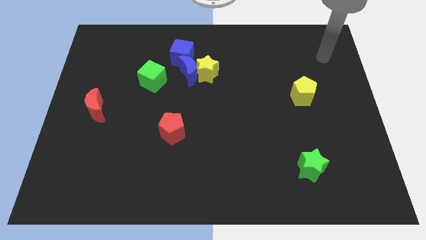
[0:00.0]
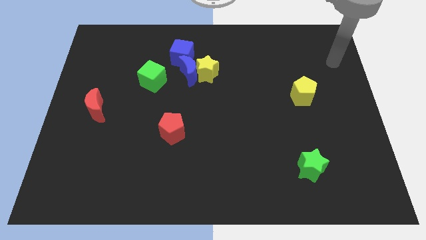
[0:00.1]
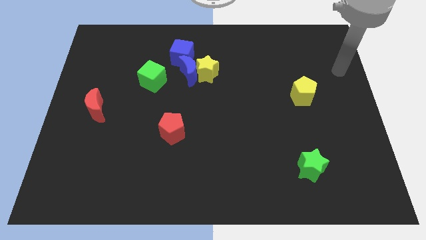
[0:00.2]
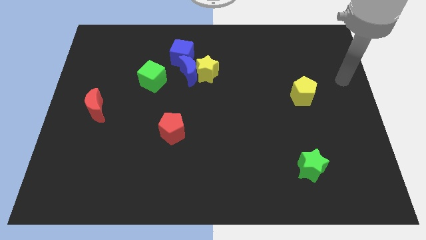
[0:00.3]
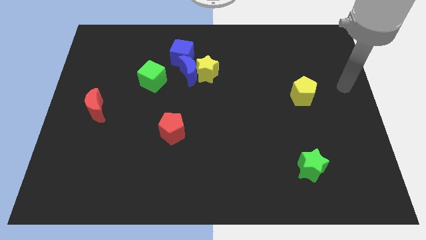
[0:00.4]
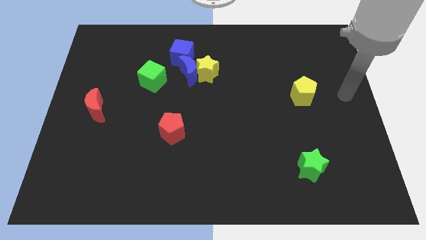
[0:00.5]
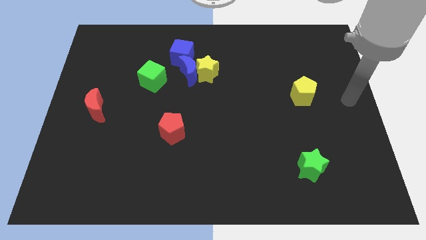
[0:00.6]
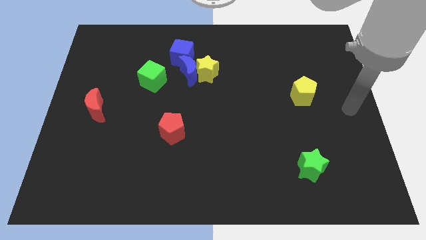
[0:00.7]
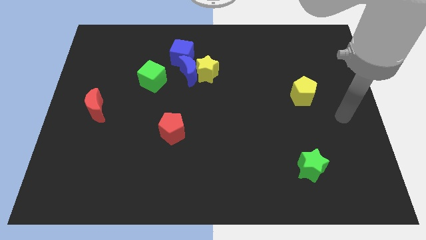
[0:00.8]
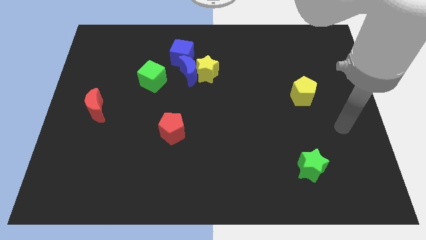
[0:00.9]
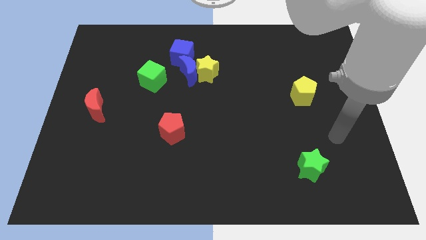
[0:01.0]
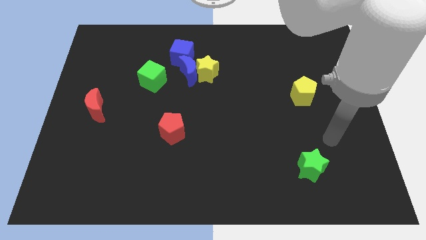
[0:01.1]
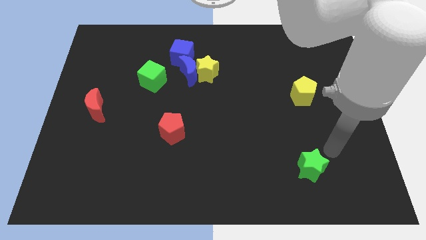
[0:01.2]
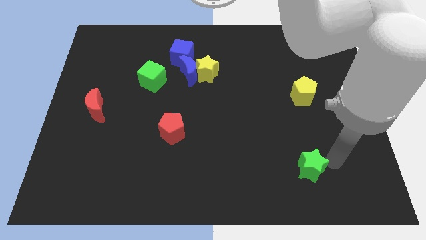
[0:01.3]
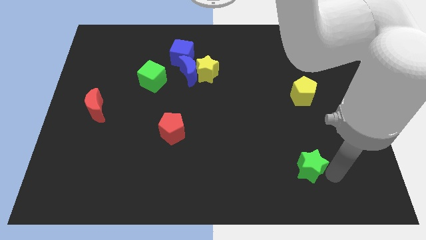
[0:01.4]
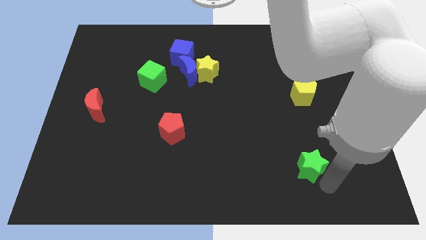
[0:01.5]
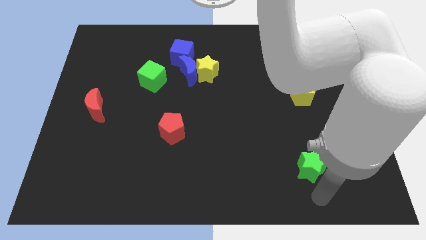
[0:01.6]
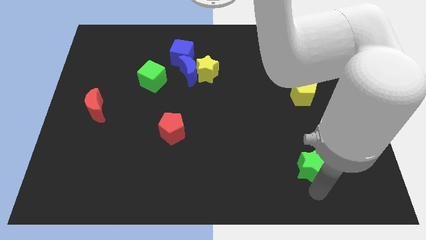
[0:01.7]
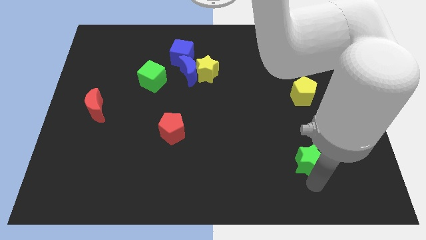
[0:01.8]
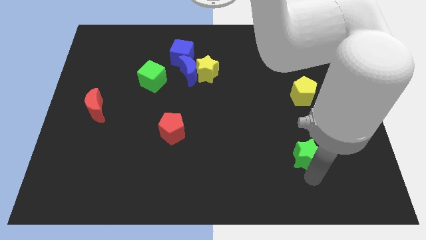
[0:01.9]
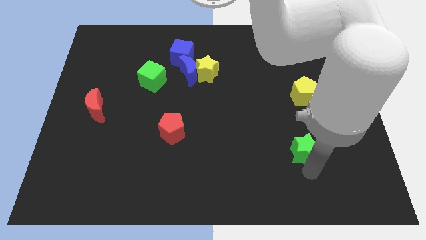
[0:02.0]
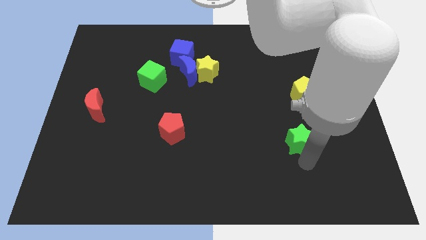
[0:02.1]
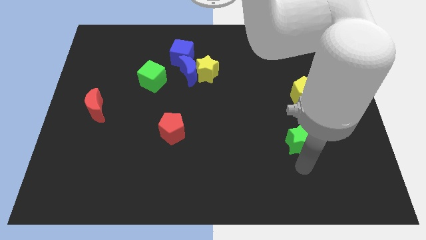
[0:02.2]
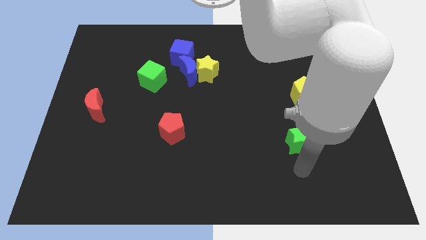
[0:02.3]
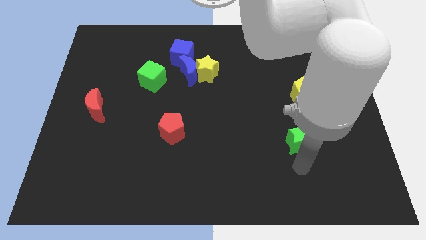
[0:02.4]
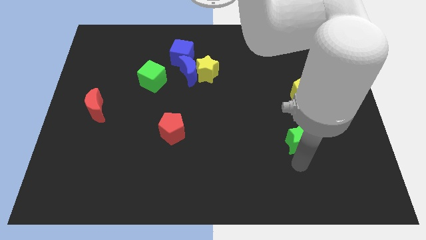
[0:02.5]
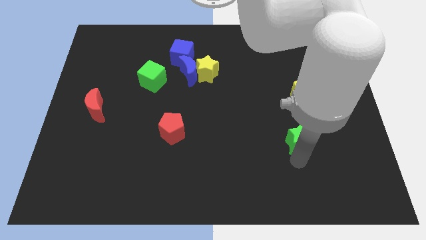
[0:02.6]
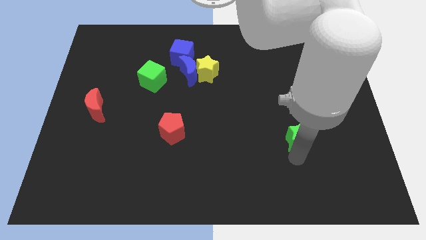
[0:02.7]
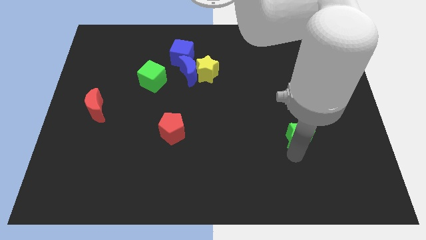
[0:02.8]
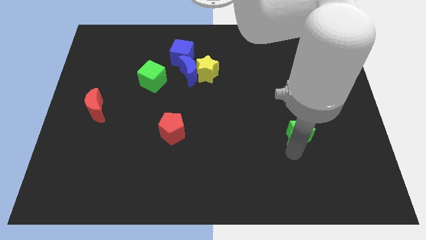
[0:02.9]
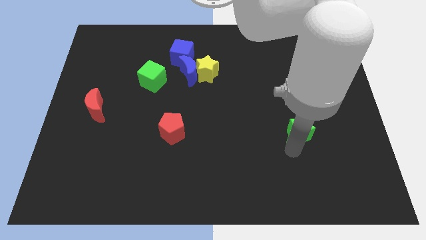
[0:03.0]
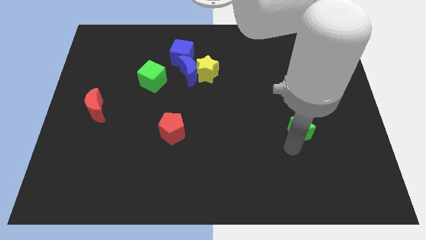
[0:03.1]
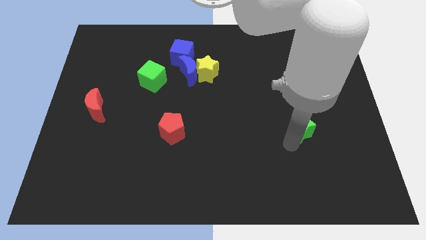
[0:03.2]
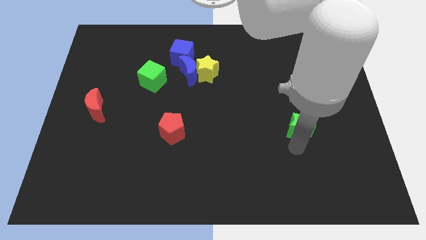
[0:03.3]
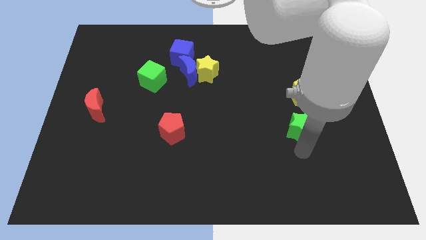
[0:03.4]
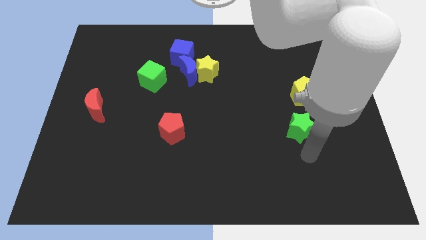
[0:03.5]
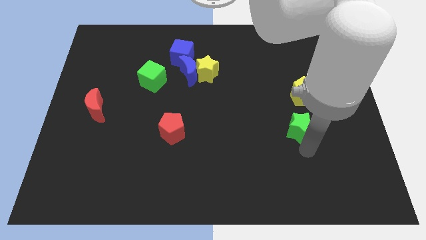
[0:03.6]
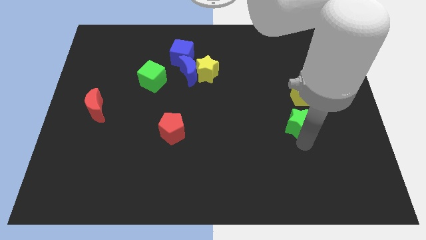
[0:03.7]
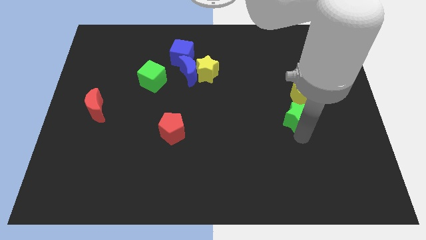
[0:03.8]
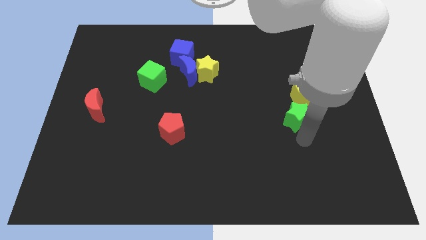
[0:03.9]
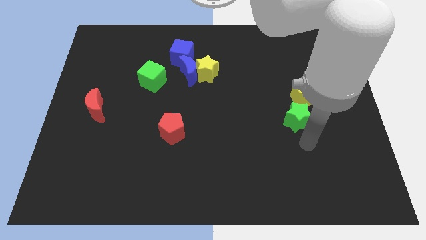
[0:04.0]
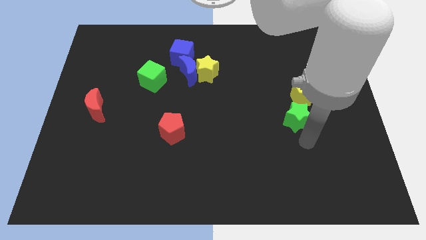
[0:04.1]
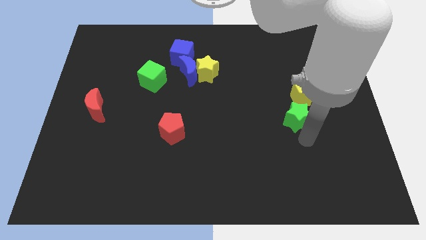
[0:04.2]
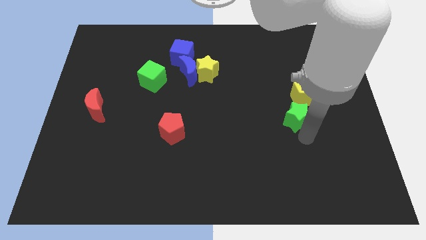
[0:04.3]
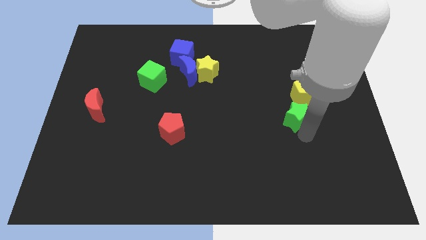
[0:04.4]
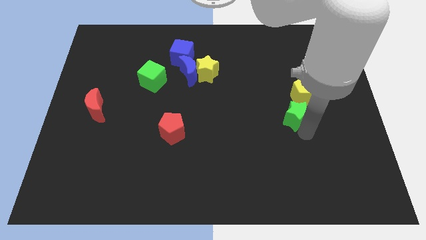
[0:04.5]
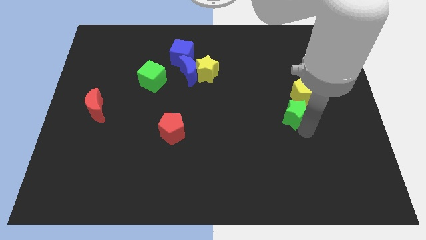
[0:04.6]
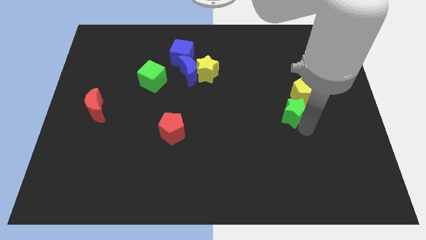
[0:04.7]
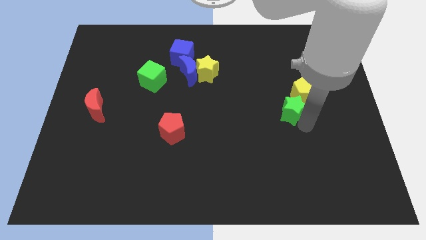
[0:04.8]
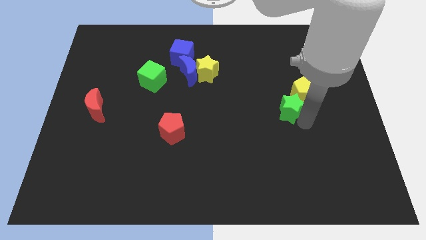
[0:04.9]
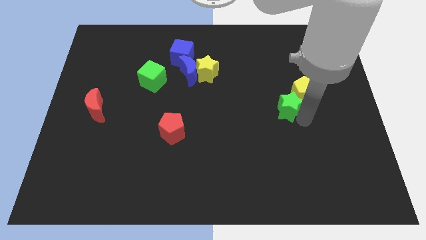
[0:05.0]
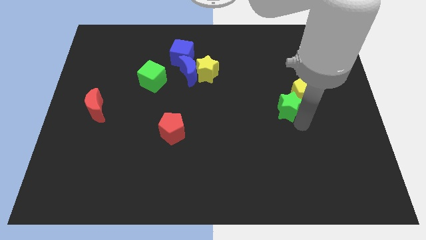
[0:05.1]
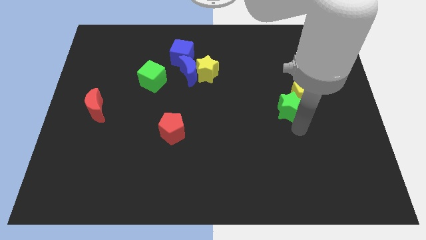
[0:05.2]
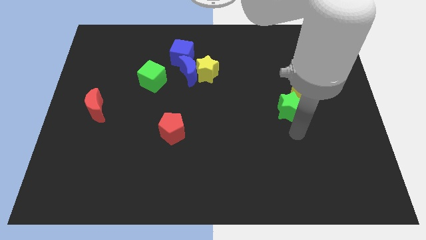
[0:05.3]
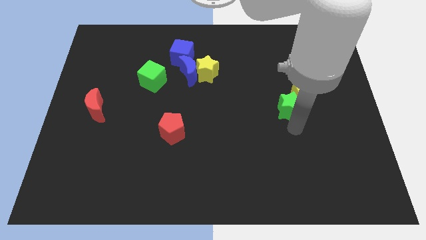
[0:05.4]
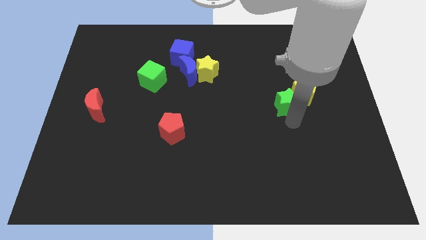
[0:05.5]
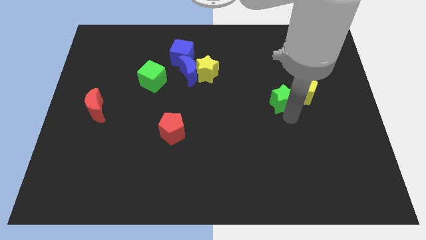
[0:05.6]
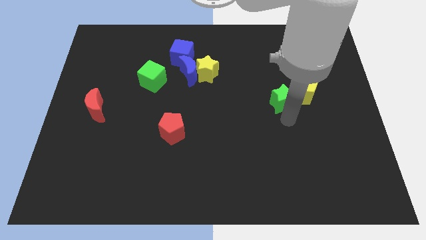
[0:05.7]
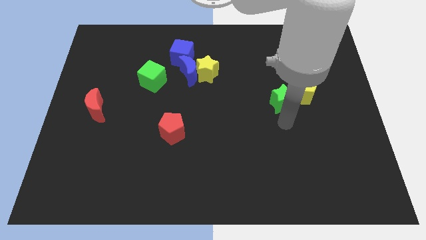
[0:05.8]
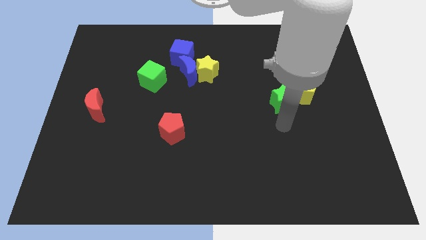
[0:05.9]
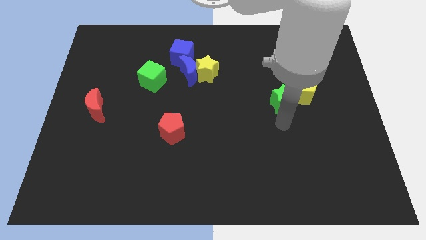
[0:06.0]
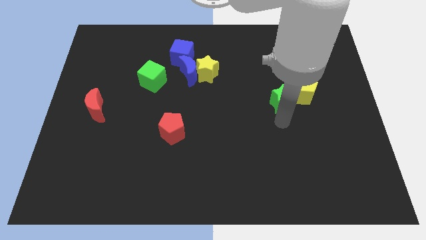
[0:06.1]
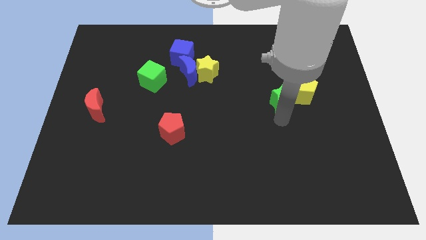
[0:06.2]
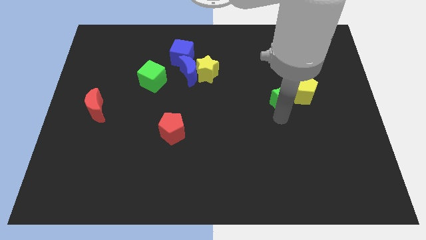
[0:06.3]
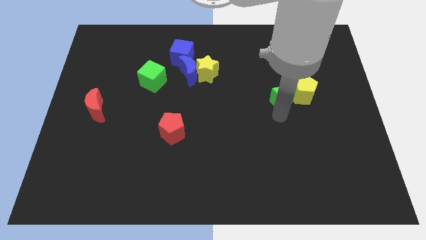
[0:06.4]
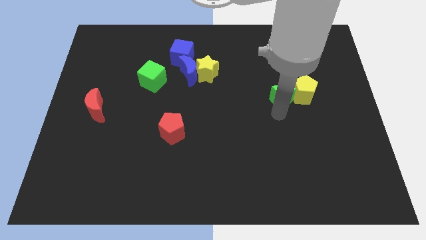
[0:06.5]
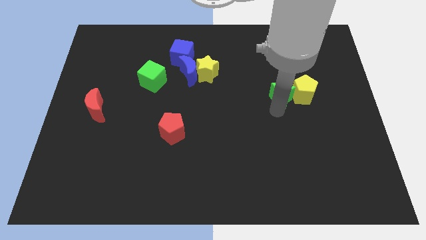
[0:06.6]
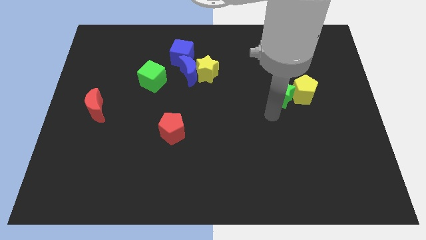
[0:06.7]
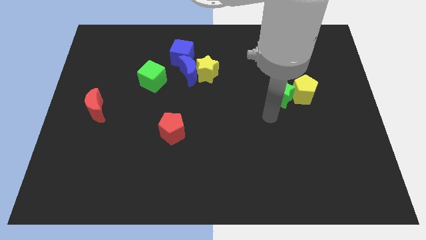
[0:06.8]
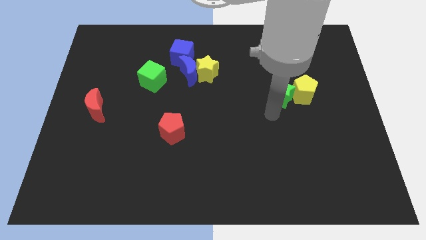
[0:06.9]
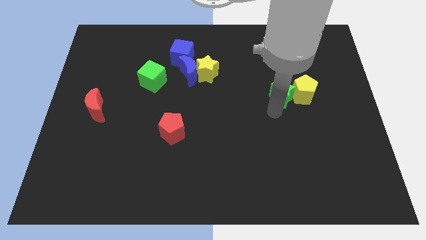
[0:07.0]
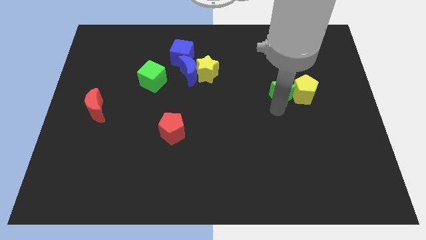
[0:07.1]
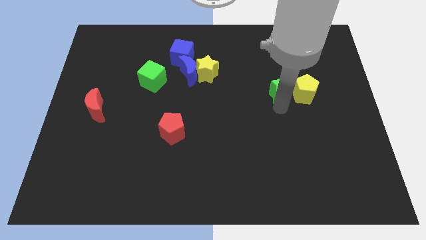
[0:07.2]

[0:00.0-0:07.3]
slide the green star up

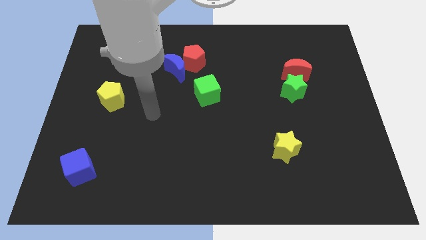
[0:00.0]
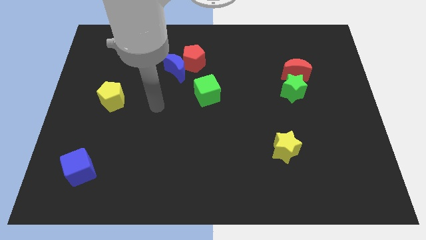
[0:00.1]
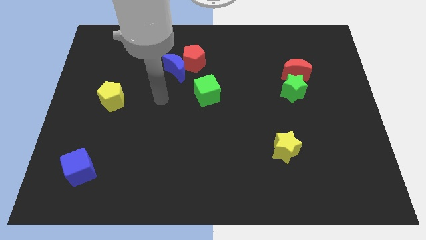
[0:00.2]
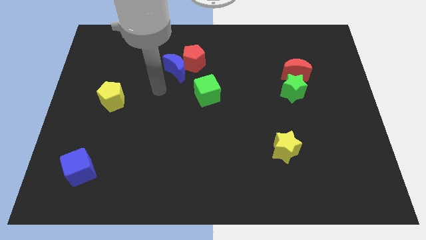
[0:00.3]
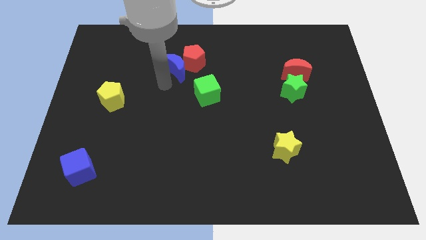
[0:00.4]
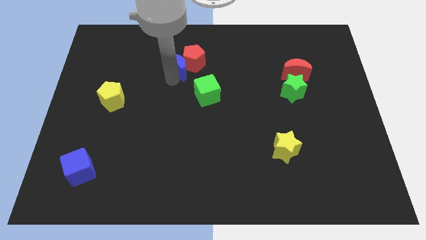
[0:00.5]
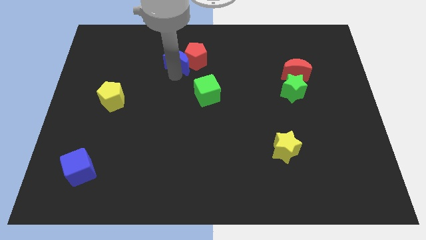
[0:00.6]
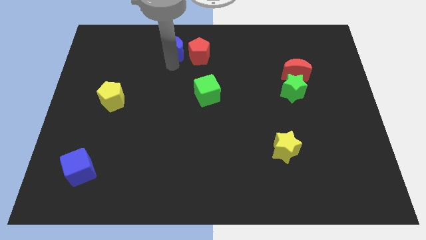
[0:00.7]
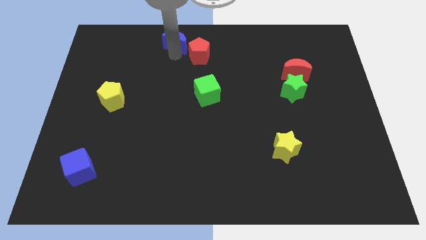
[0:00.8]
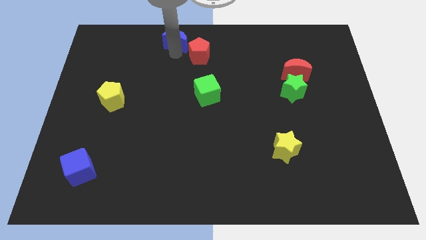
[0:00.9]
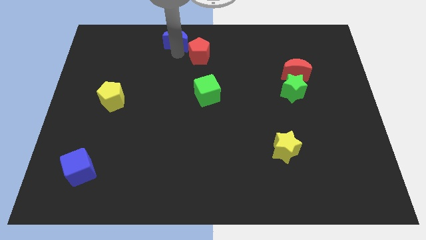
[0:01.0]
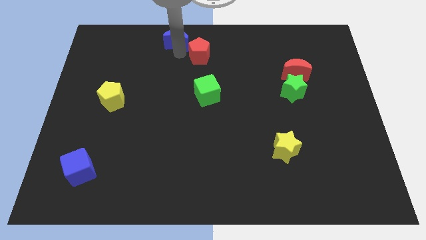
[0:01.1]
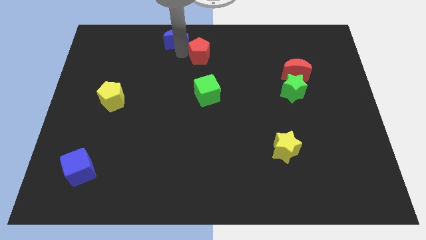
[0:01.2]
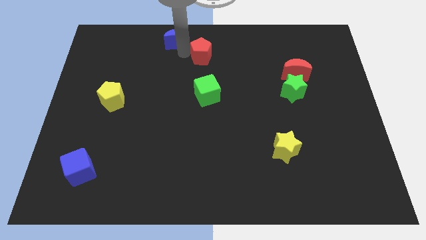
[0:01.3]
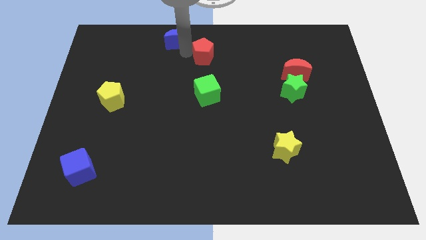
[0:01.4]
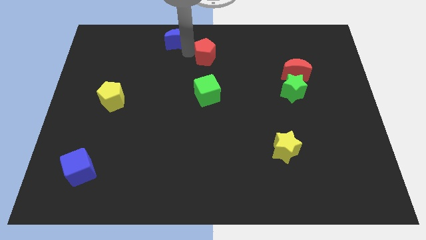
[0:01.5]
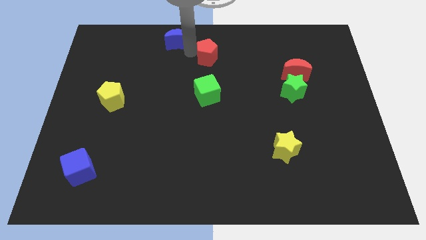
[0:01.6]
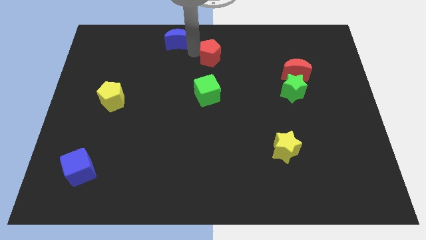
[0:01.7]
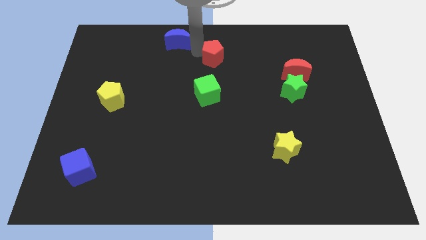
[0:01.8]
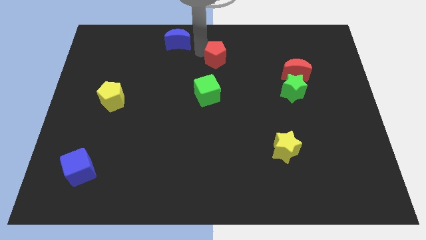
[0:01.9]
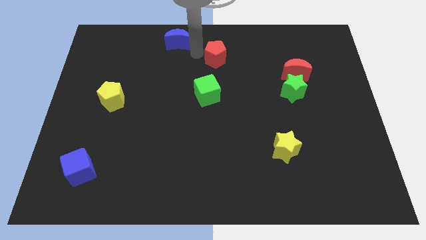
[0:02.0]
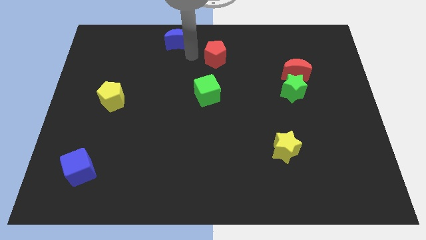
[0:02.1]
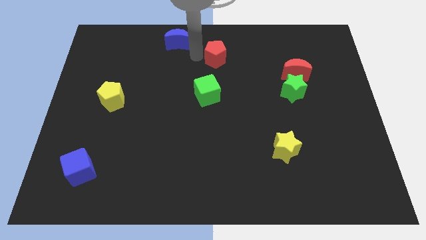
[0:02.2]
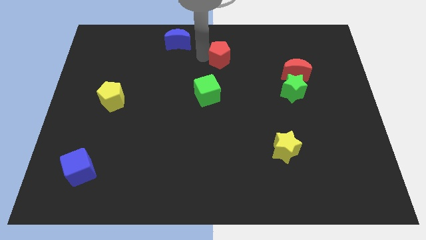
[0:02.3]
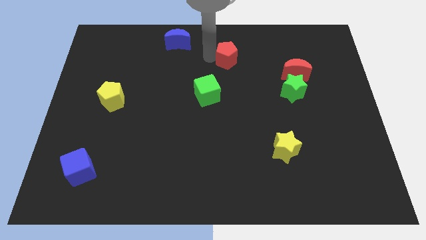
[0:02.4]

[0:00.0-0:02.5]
slightly move the red pentagon to the right
